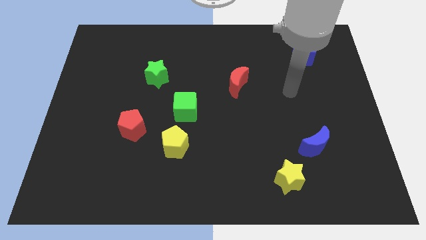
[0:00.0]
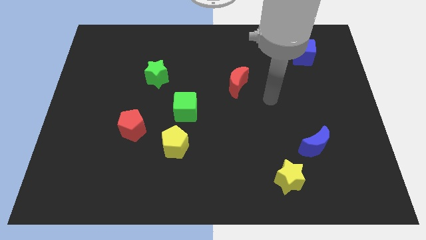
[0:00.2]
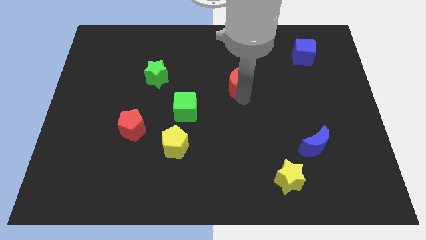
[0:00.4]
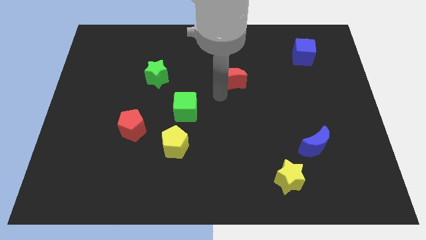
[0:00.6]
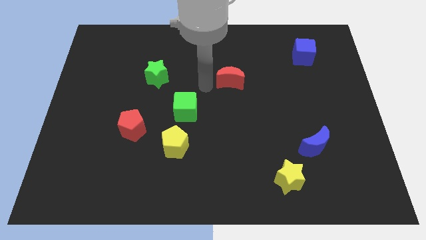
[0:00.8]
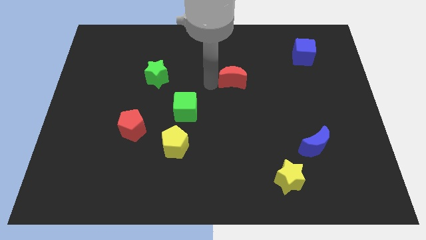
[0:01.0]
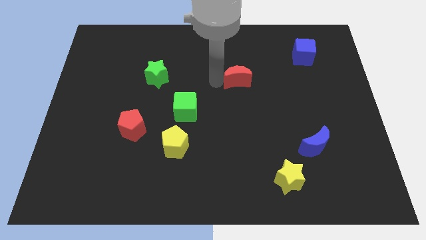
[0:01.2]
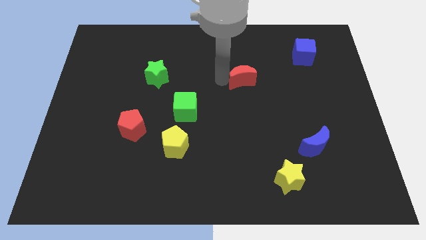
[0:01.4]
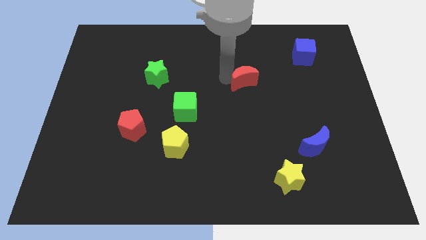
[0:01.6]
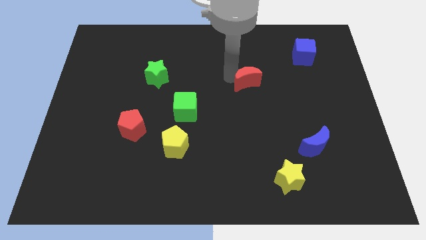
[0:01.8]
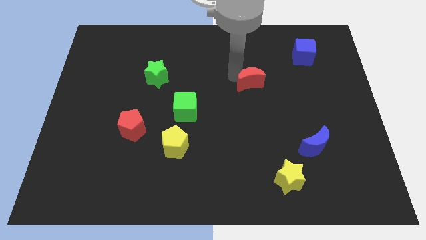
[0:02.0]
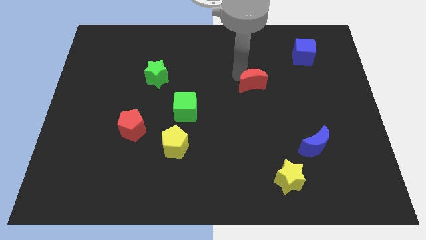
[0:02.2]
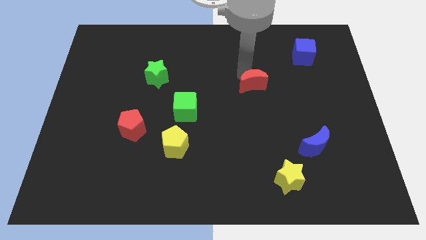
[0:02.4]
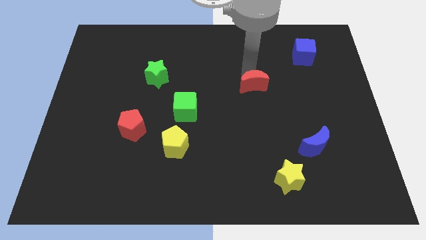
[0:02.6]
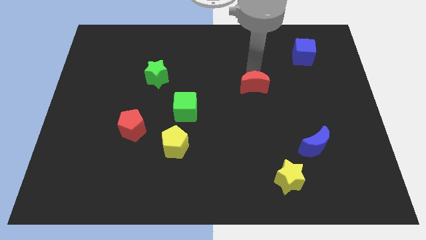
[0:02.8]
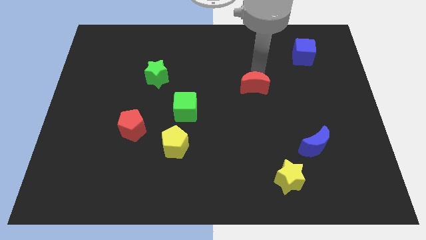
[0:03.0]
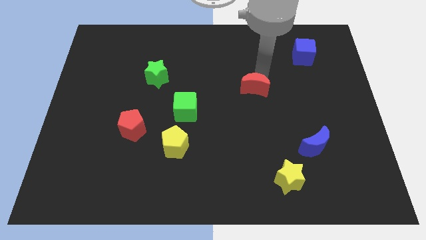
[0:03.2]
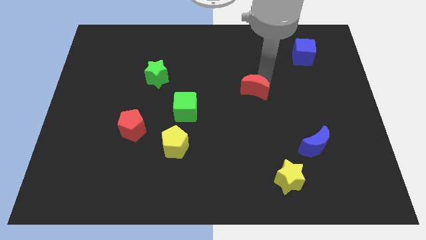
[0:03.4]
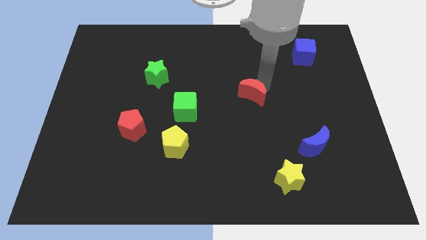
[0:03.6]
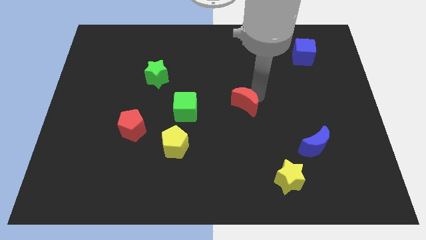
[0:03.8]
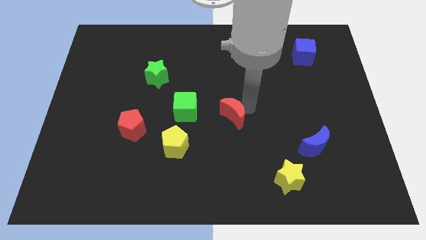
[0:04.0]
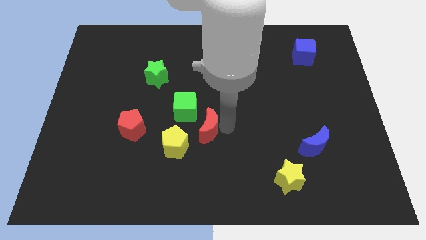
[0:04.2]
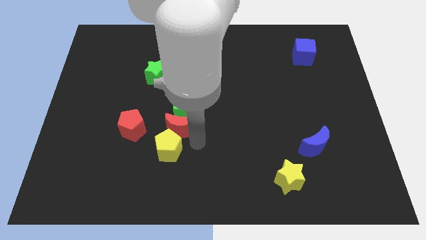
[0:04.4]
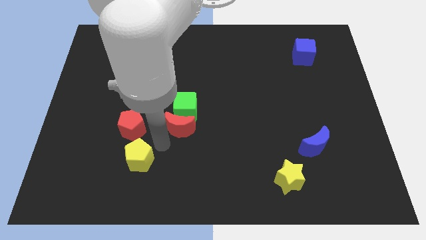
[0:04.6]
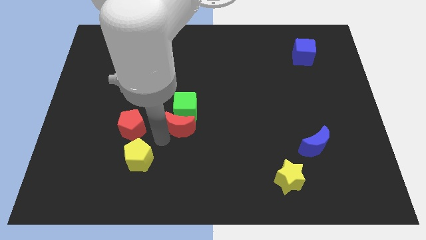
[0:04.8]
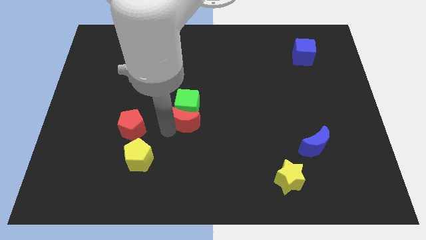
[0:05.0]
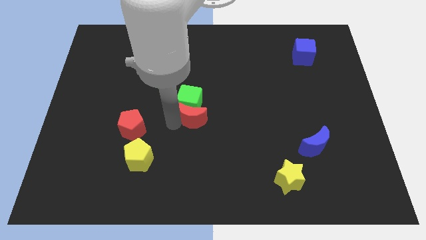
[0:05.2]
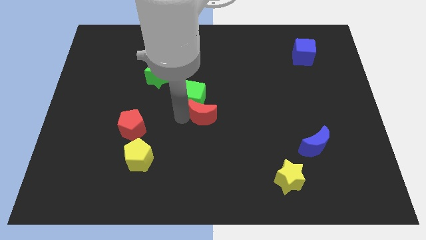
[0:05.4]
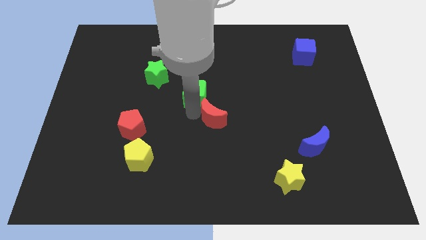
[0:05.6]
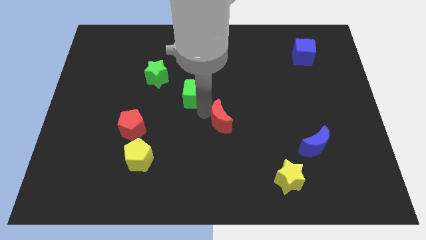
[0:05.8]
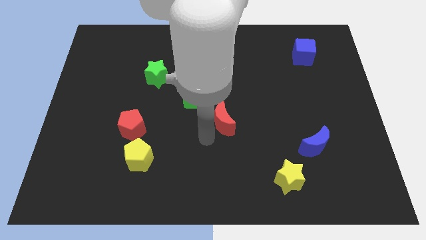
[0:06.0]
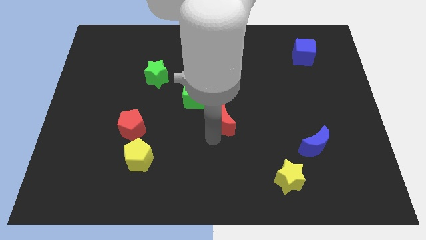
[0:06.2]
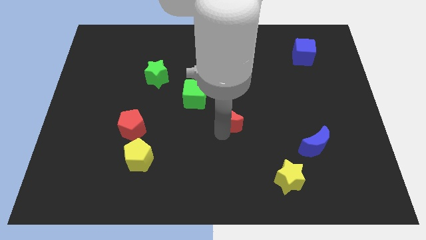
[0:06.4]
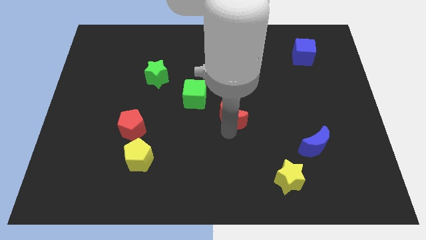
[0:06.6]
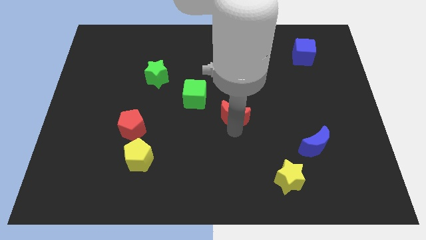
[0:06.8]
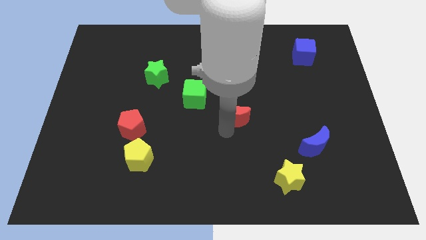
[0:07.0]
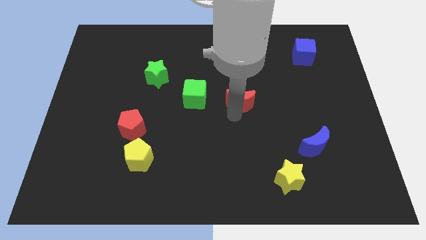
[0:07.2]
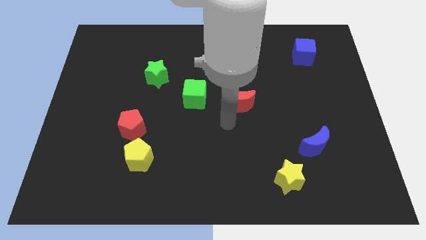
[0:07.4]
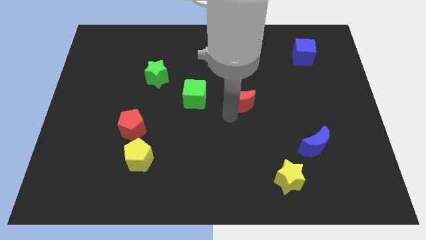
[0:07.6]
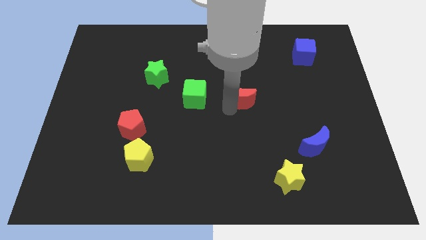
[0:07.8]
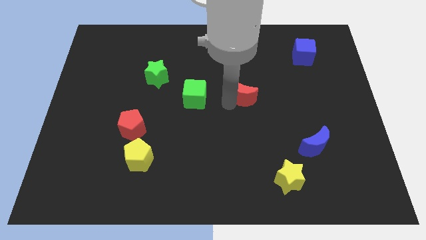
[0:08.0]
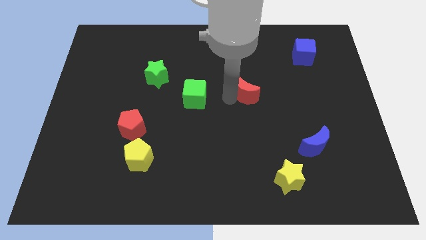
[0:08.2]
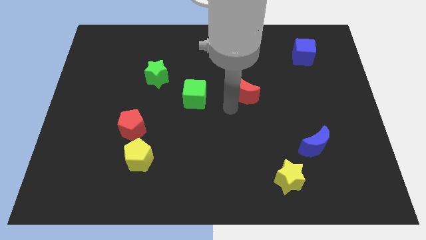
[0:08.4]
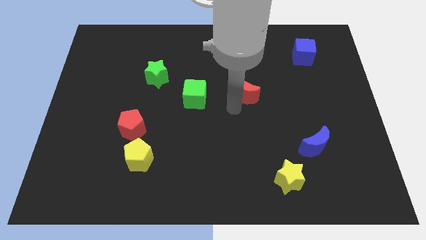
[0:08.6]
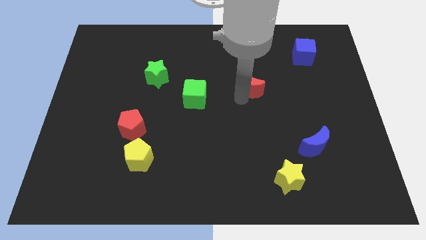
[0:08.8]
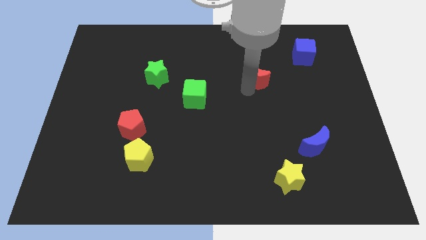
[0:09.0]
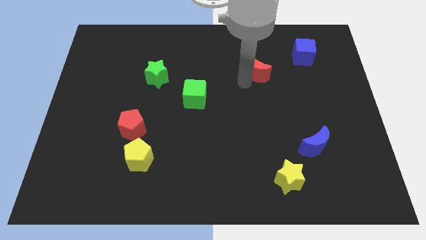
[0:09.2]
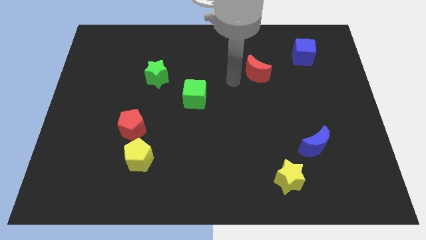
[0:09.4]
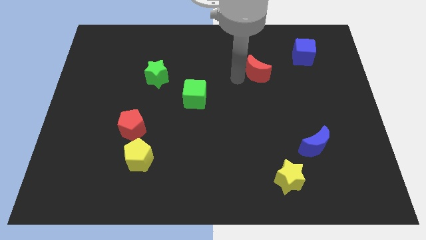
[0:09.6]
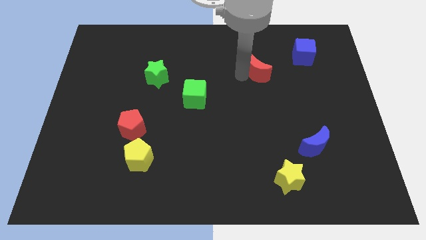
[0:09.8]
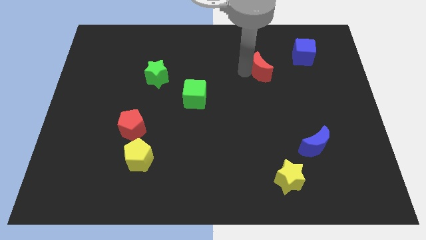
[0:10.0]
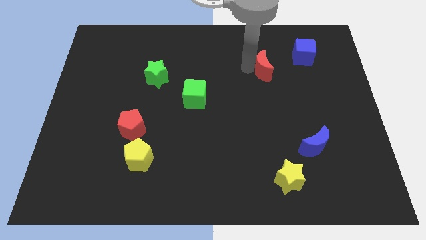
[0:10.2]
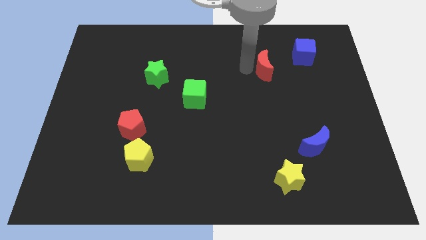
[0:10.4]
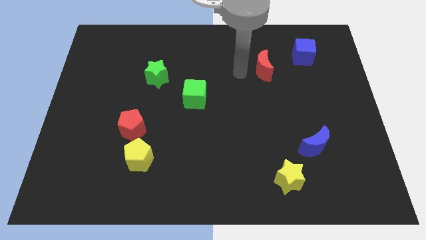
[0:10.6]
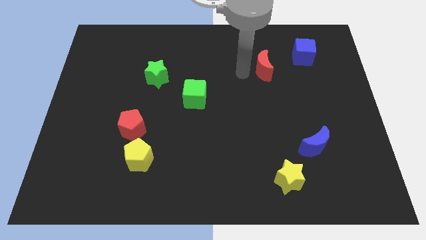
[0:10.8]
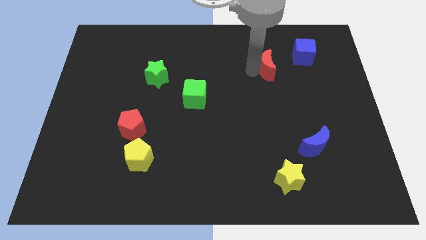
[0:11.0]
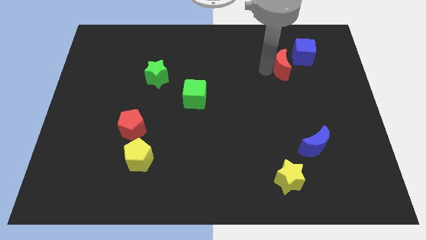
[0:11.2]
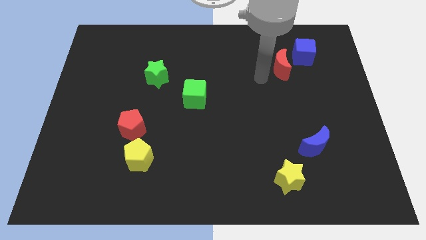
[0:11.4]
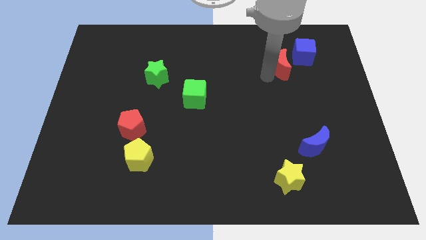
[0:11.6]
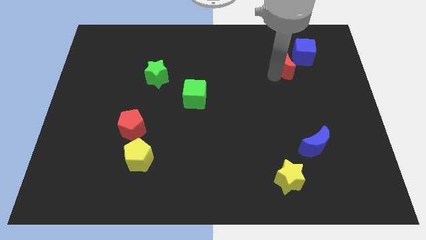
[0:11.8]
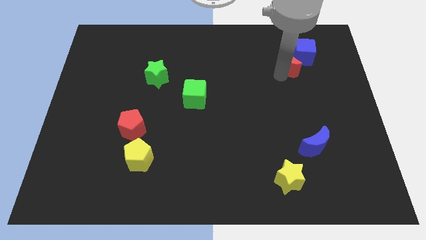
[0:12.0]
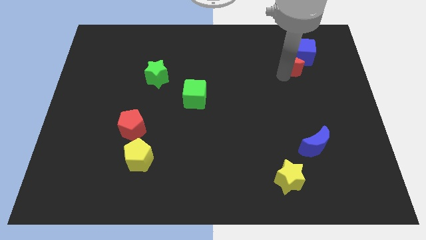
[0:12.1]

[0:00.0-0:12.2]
slide the red moon towards the blue cube

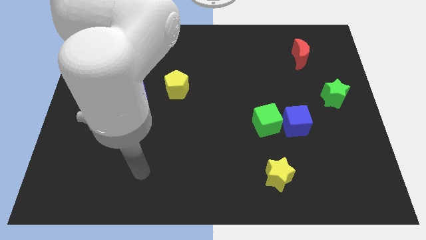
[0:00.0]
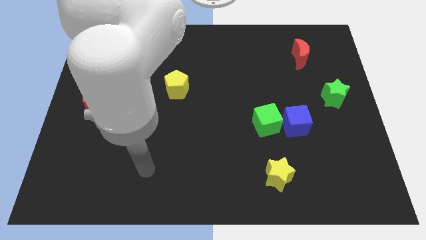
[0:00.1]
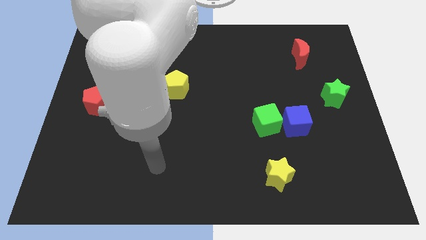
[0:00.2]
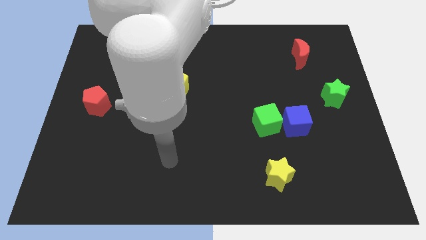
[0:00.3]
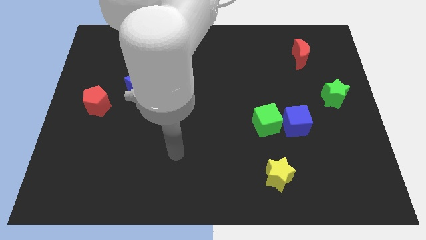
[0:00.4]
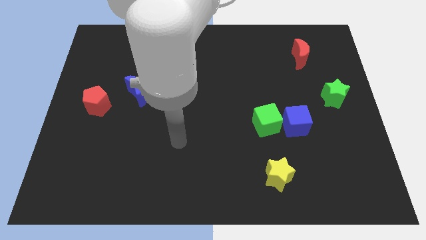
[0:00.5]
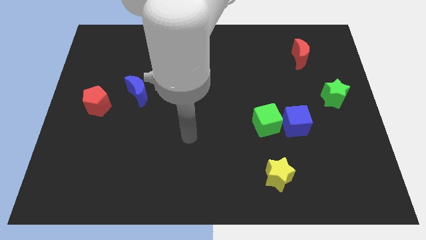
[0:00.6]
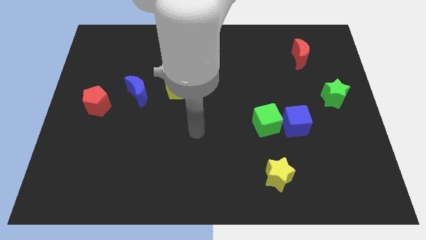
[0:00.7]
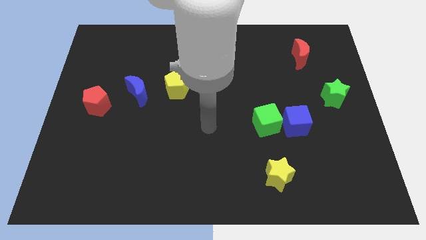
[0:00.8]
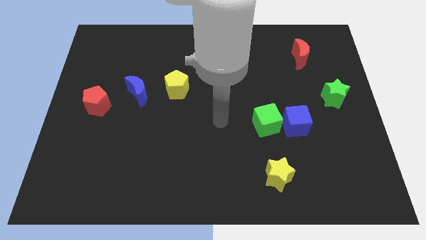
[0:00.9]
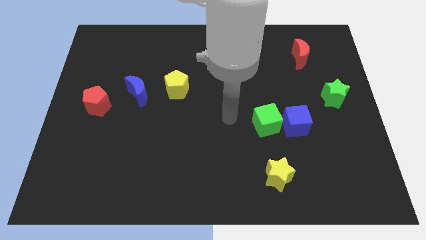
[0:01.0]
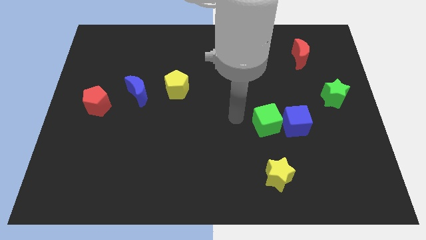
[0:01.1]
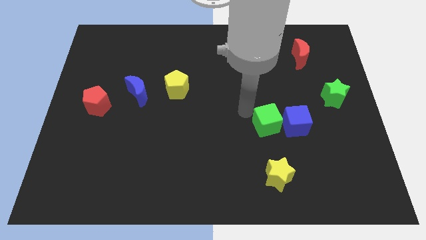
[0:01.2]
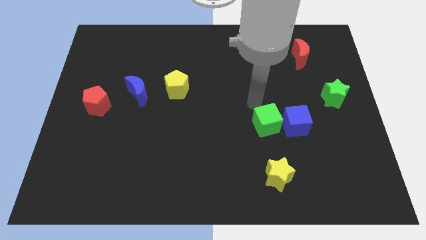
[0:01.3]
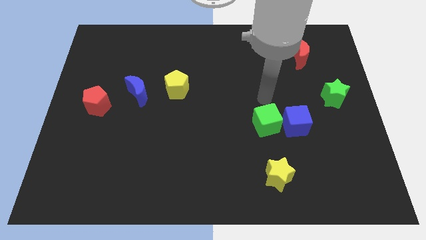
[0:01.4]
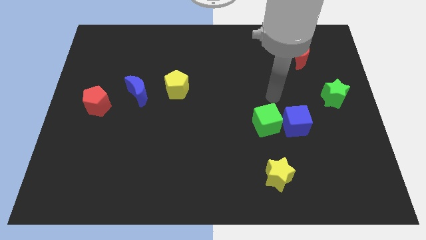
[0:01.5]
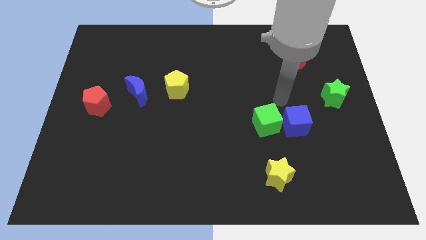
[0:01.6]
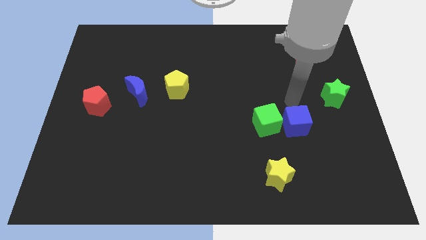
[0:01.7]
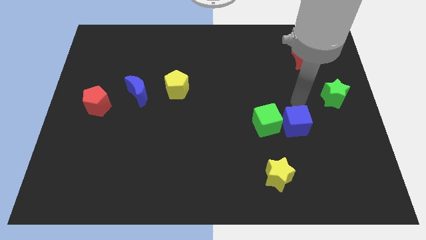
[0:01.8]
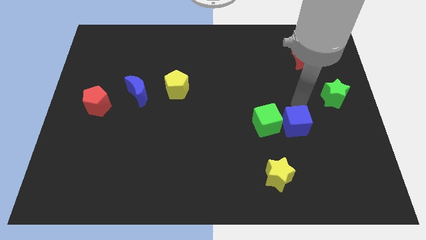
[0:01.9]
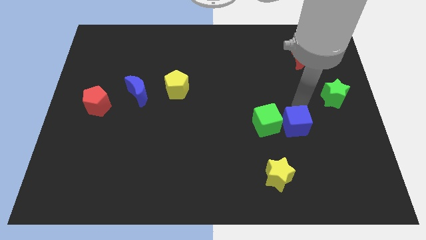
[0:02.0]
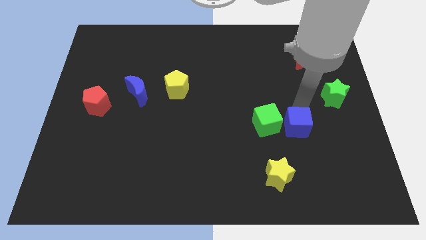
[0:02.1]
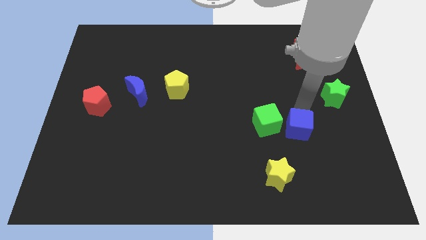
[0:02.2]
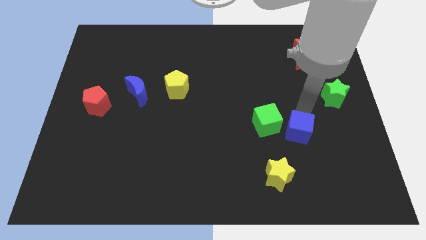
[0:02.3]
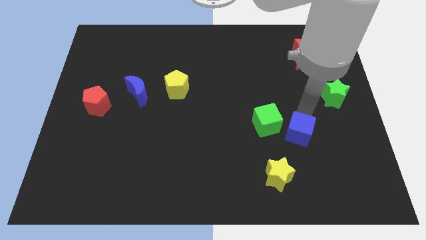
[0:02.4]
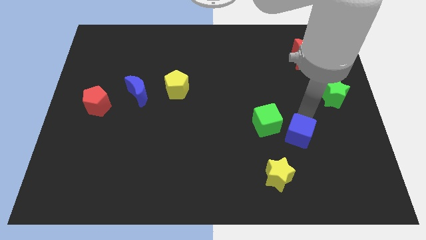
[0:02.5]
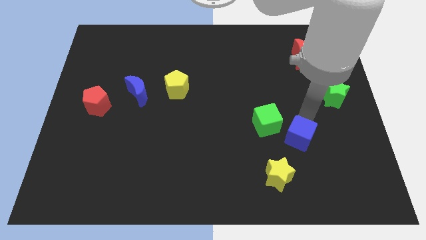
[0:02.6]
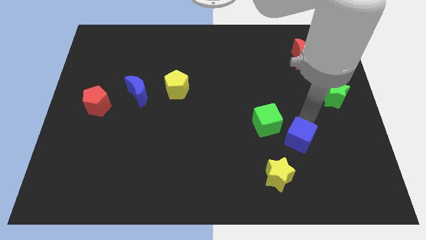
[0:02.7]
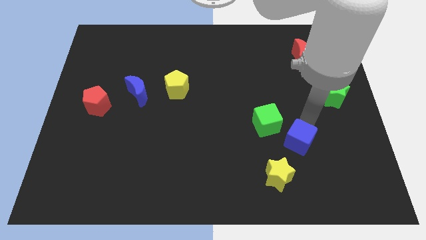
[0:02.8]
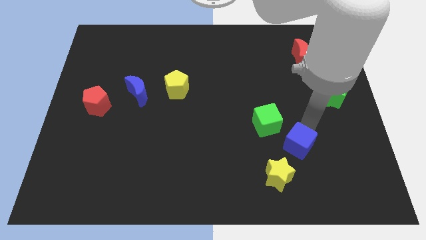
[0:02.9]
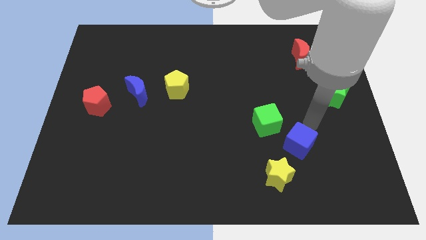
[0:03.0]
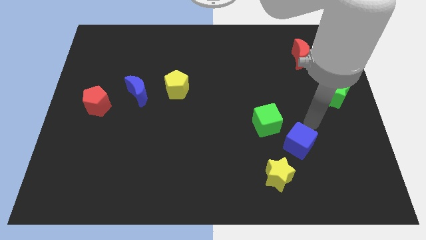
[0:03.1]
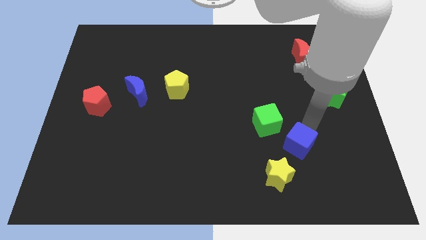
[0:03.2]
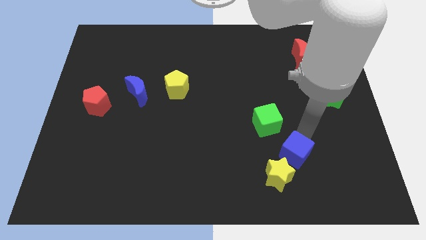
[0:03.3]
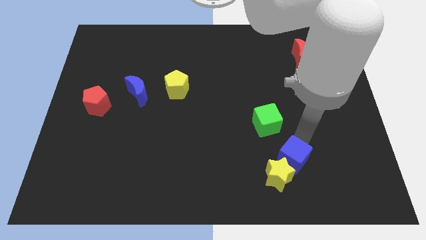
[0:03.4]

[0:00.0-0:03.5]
push the blue cube to the yellow star
